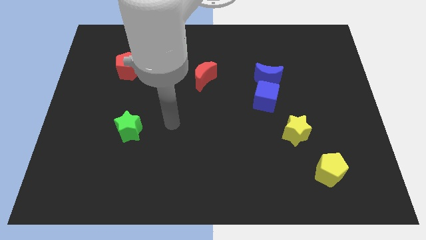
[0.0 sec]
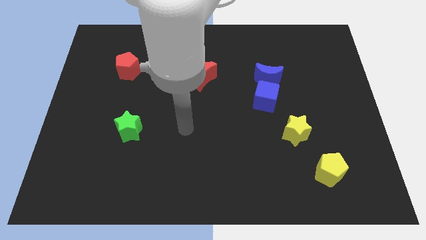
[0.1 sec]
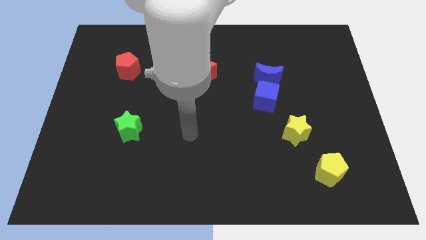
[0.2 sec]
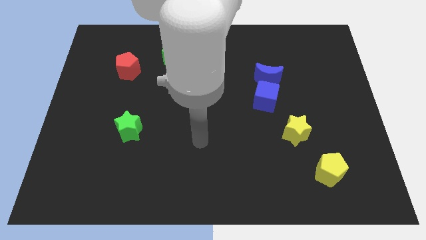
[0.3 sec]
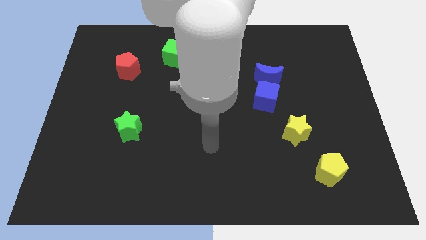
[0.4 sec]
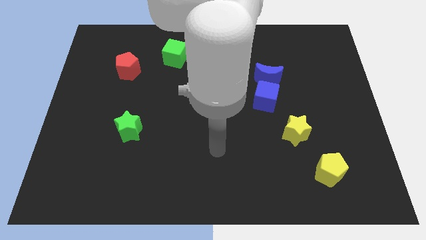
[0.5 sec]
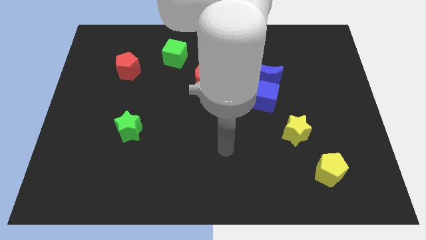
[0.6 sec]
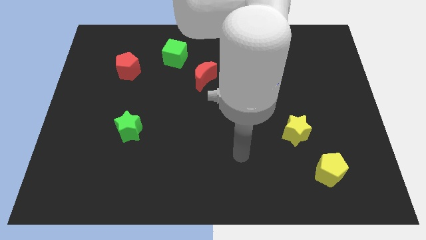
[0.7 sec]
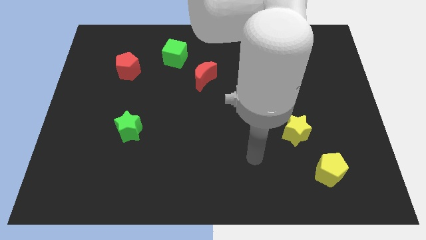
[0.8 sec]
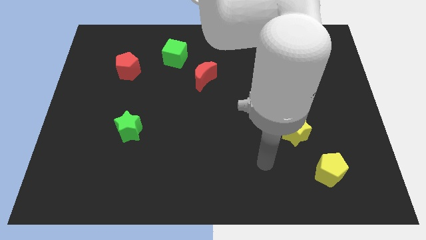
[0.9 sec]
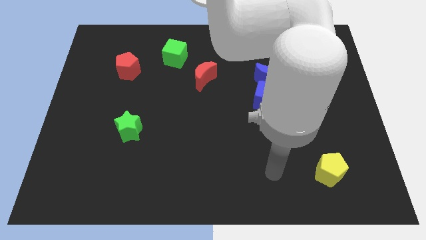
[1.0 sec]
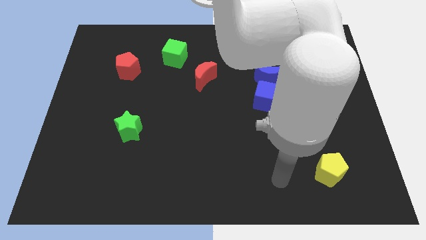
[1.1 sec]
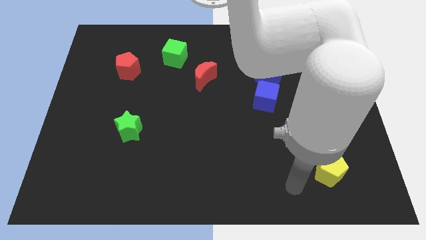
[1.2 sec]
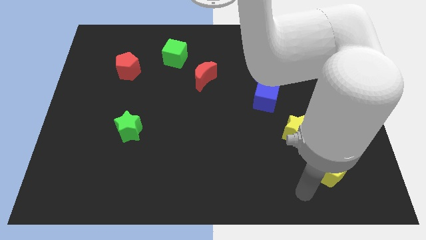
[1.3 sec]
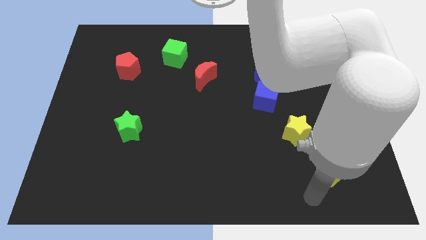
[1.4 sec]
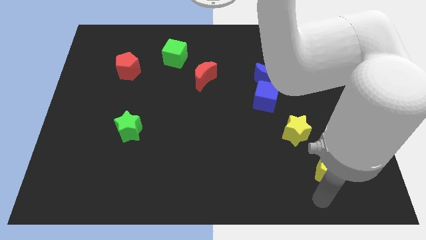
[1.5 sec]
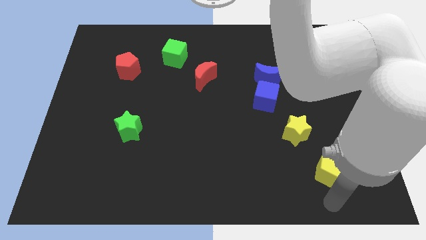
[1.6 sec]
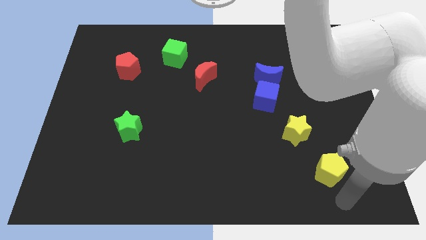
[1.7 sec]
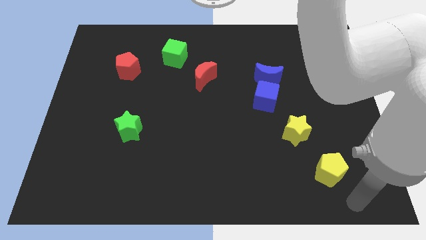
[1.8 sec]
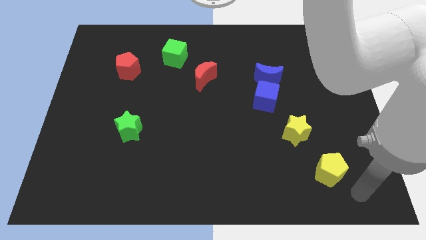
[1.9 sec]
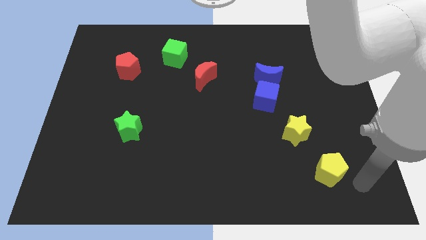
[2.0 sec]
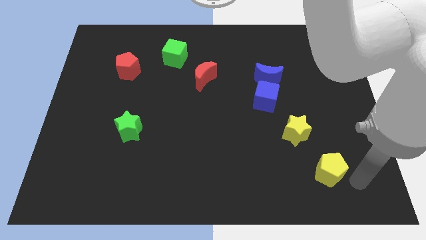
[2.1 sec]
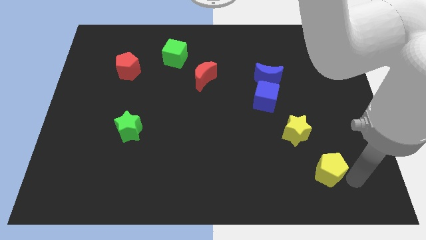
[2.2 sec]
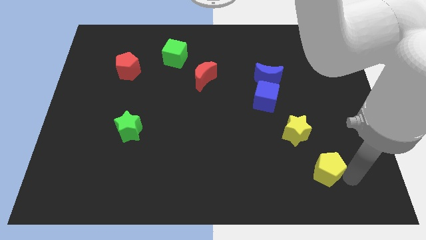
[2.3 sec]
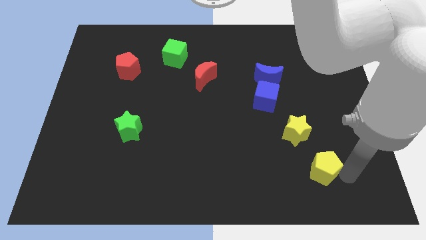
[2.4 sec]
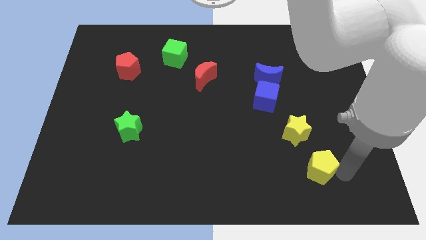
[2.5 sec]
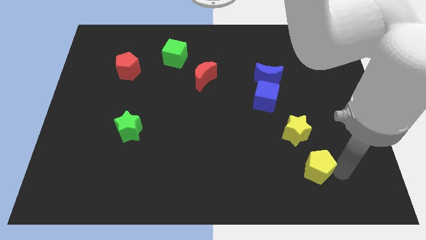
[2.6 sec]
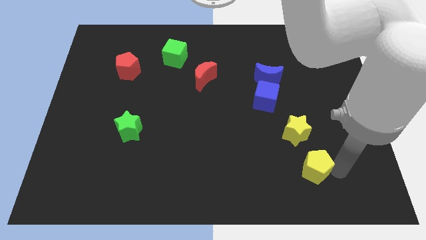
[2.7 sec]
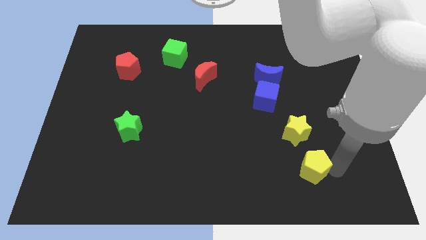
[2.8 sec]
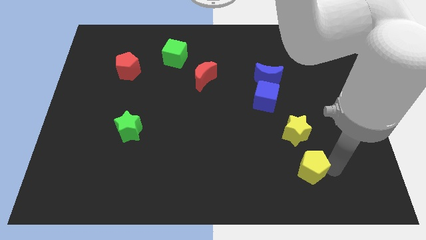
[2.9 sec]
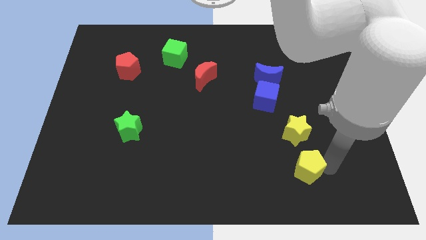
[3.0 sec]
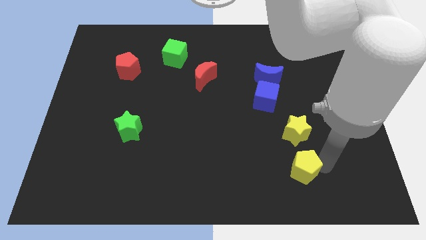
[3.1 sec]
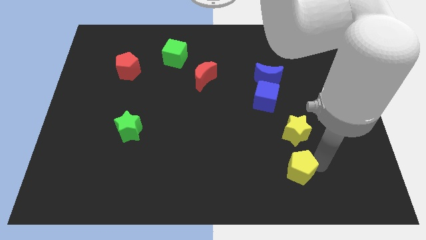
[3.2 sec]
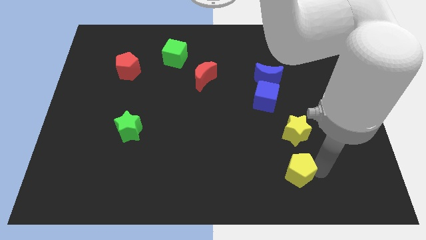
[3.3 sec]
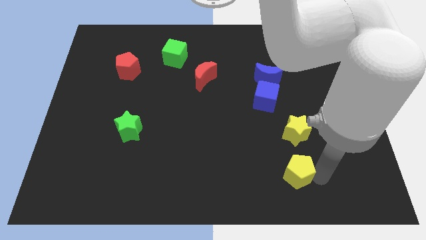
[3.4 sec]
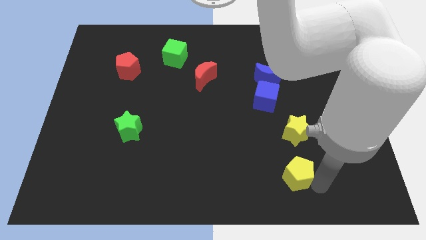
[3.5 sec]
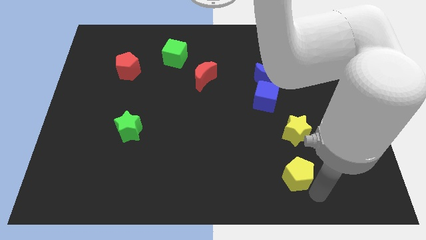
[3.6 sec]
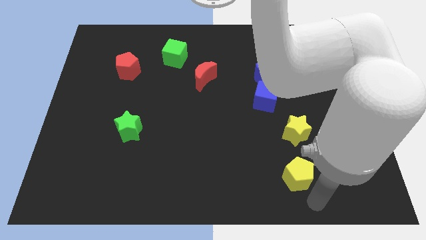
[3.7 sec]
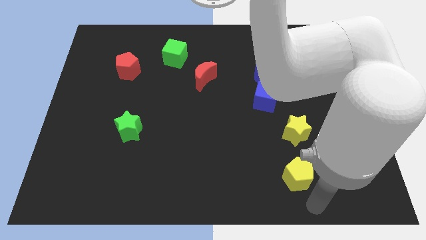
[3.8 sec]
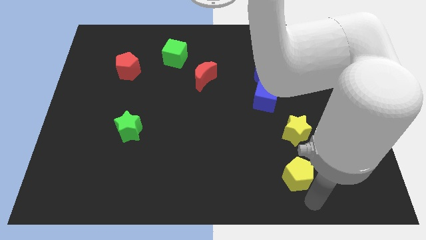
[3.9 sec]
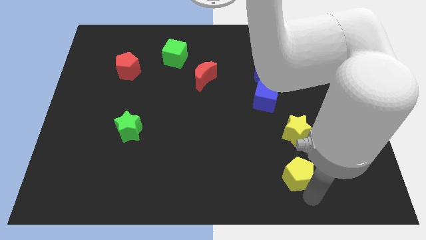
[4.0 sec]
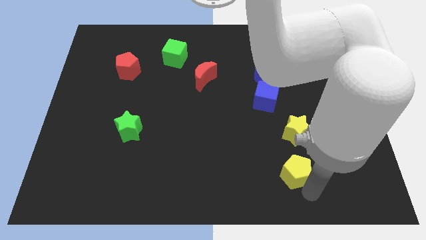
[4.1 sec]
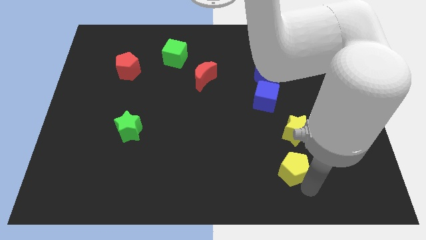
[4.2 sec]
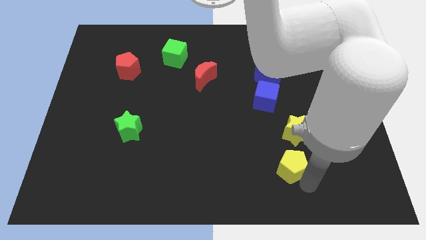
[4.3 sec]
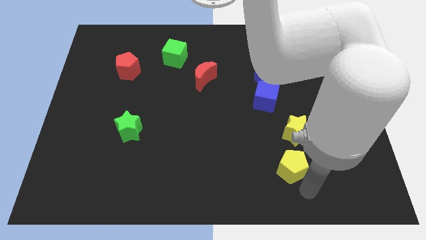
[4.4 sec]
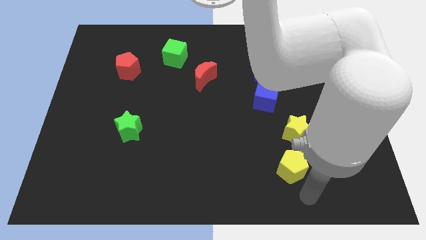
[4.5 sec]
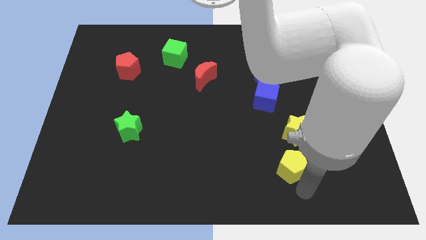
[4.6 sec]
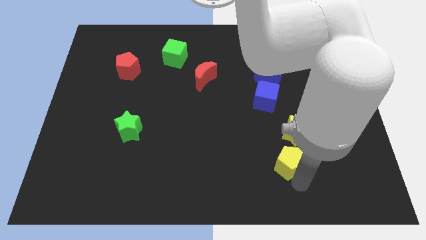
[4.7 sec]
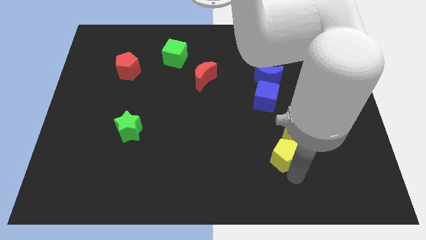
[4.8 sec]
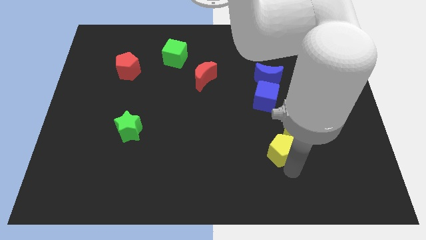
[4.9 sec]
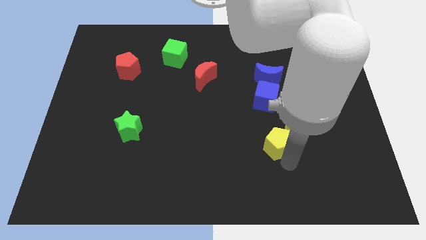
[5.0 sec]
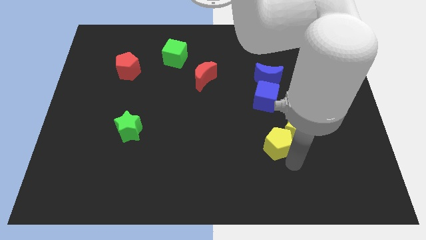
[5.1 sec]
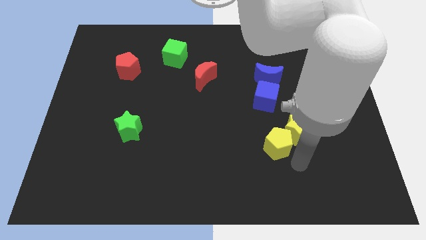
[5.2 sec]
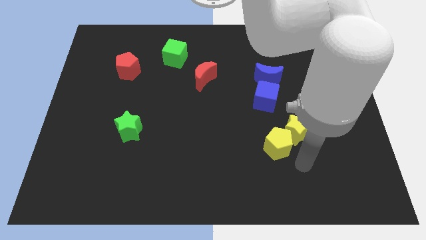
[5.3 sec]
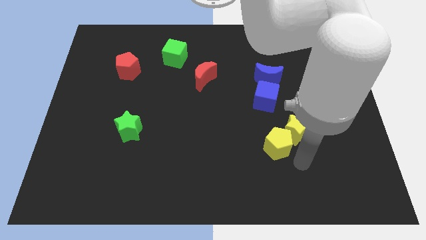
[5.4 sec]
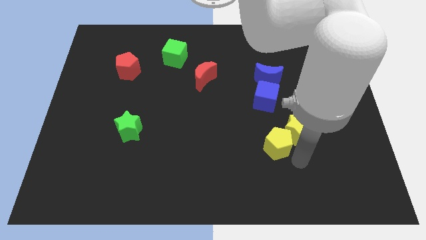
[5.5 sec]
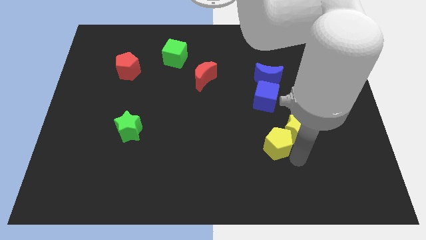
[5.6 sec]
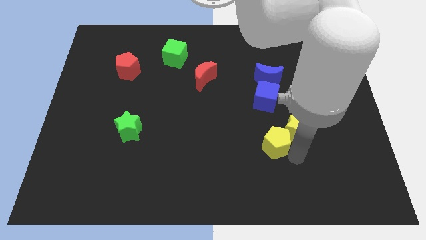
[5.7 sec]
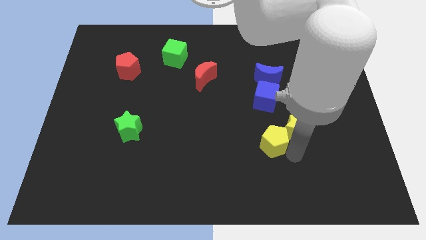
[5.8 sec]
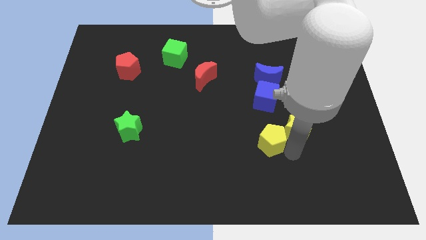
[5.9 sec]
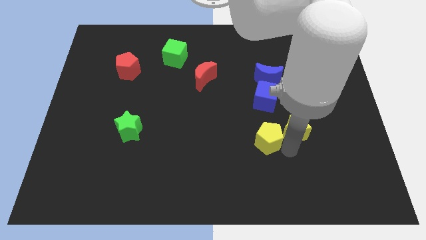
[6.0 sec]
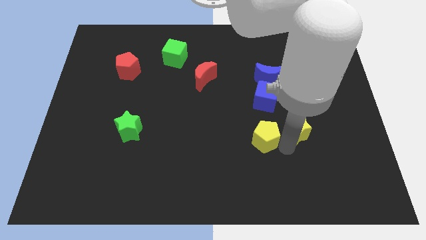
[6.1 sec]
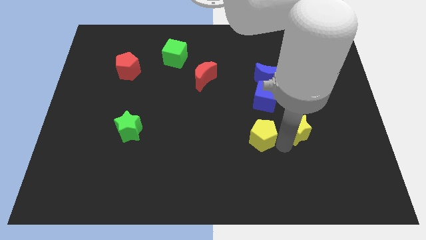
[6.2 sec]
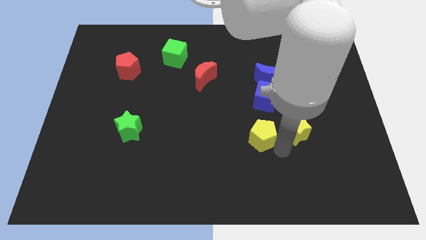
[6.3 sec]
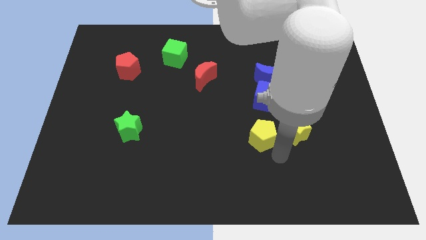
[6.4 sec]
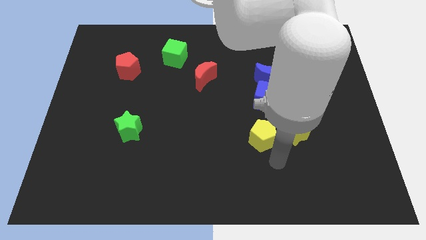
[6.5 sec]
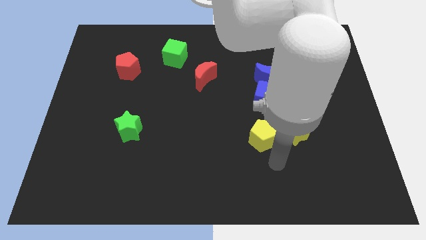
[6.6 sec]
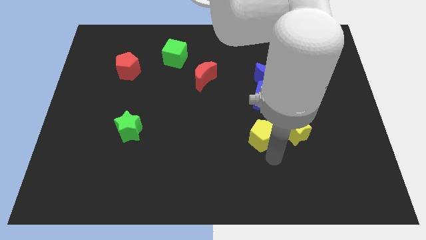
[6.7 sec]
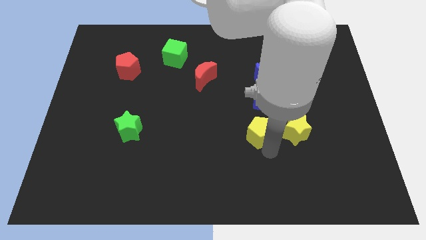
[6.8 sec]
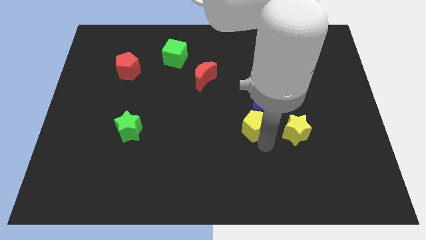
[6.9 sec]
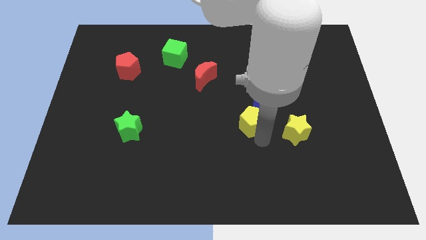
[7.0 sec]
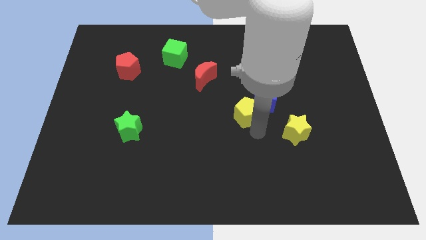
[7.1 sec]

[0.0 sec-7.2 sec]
move the yellow pentagon up and to the left diagonally

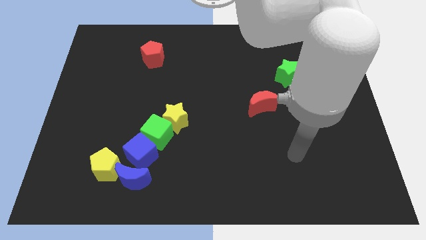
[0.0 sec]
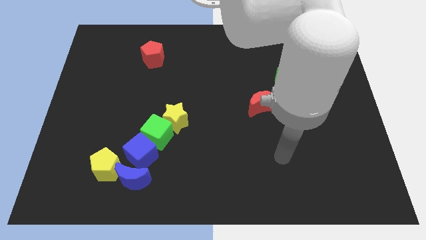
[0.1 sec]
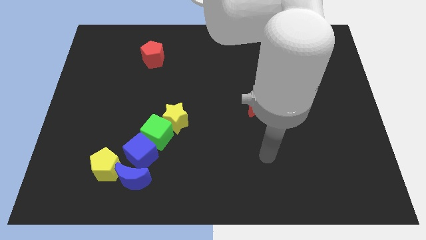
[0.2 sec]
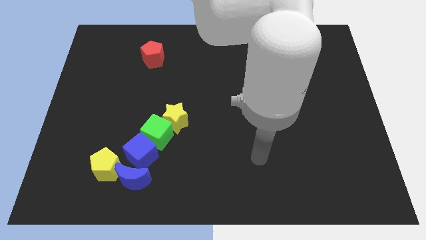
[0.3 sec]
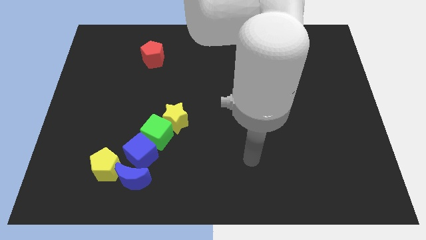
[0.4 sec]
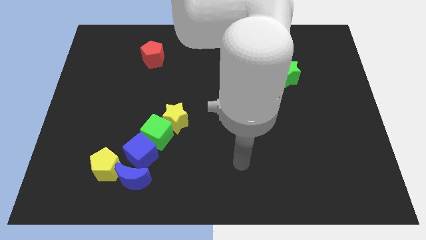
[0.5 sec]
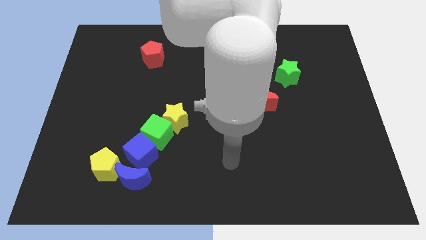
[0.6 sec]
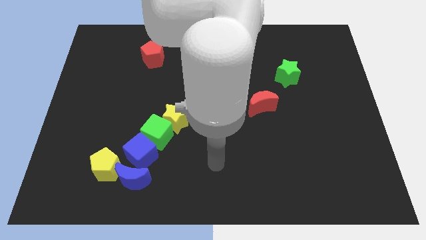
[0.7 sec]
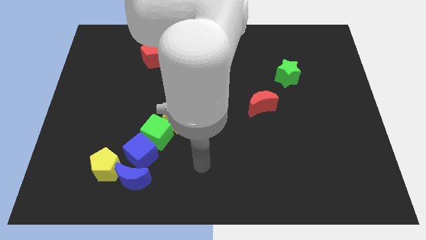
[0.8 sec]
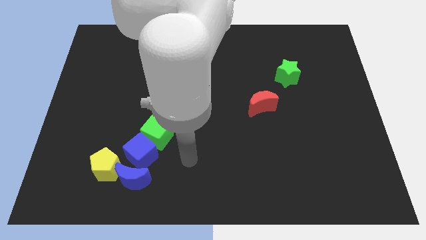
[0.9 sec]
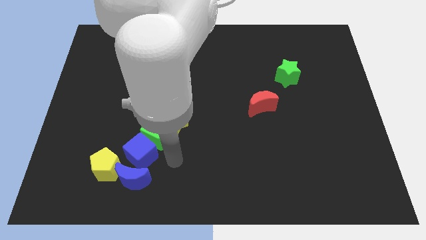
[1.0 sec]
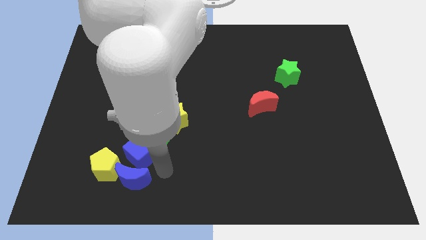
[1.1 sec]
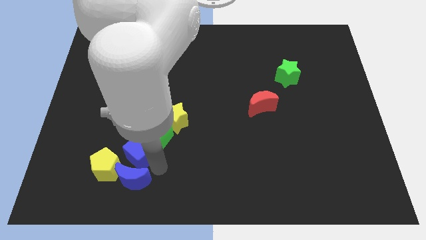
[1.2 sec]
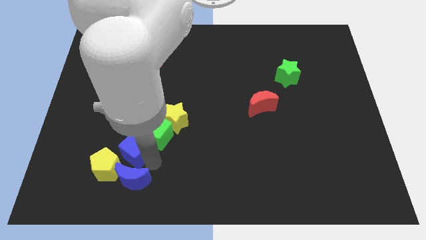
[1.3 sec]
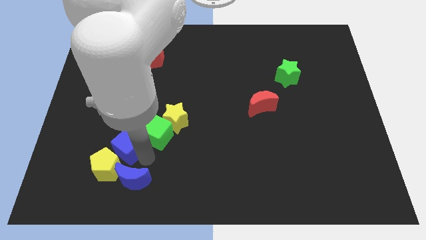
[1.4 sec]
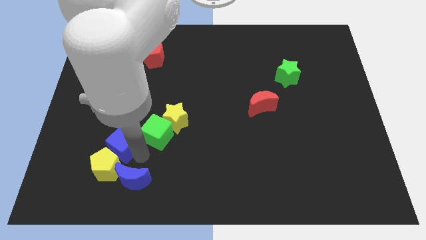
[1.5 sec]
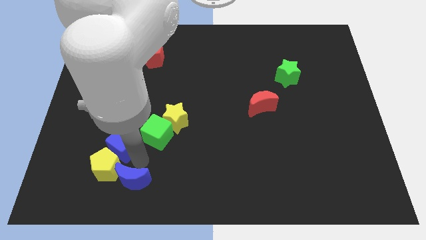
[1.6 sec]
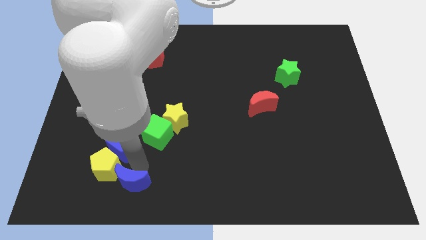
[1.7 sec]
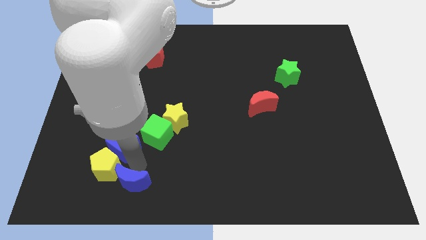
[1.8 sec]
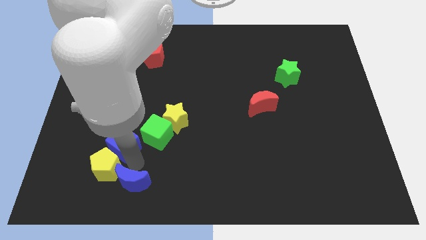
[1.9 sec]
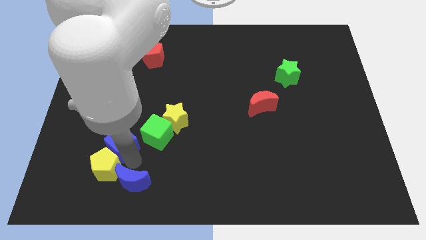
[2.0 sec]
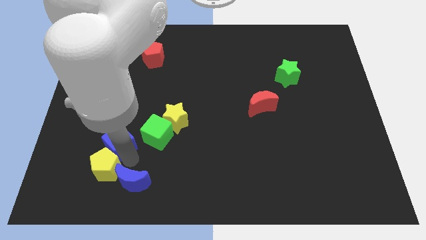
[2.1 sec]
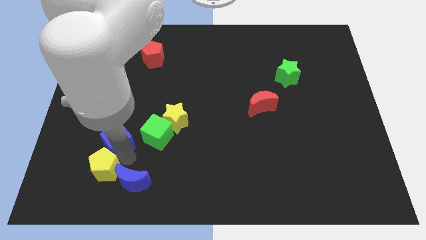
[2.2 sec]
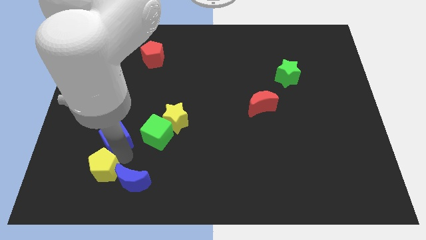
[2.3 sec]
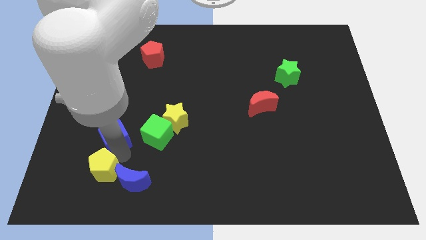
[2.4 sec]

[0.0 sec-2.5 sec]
slightly slide the blue cube diagonally upwards and to the left
